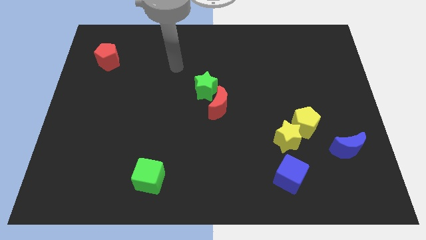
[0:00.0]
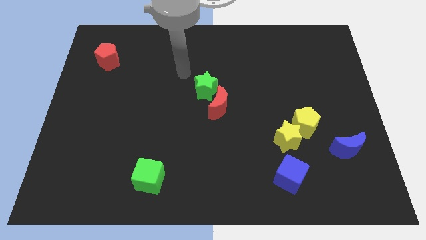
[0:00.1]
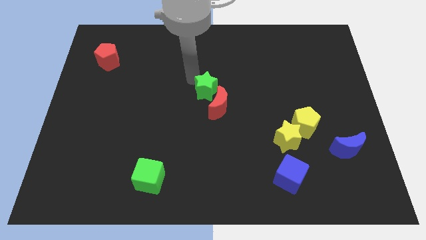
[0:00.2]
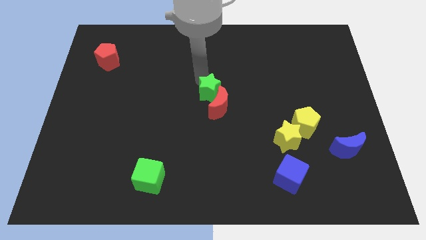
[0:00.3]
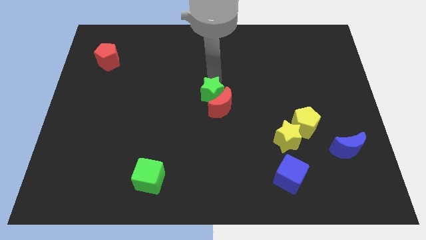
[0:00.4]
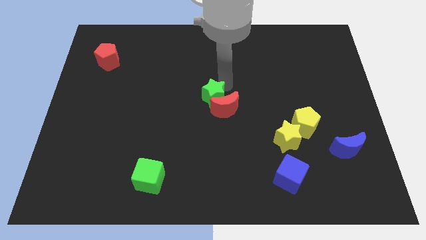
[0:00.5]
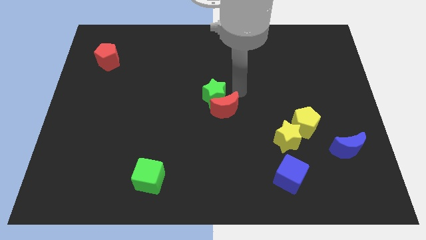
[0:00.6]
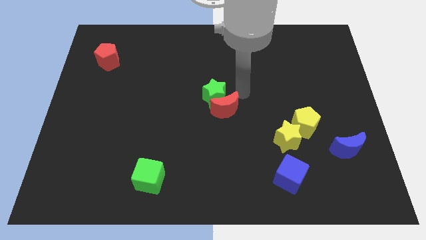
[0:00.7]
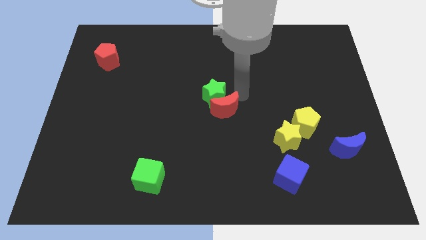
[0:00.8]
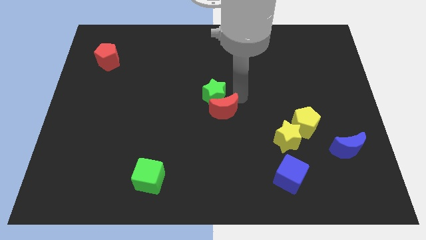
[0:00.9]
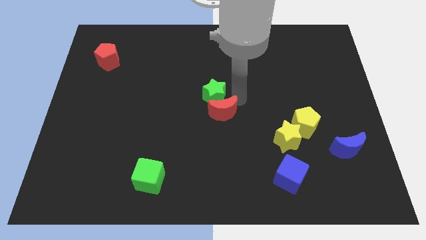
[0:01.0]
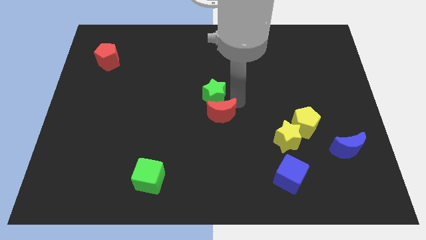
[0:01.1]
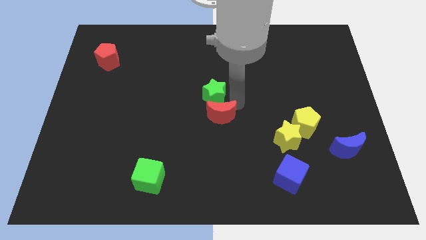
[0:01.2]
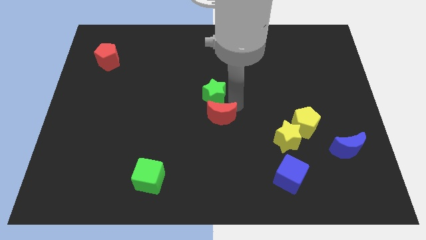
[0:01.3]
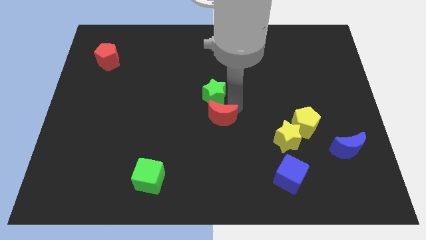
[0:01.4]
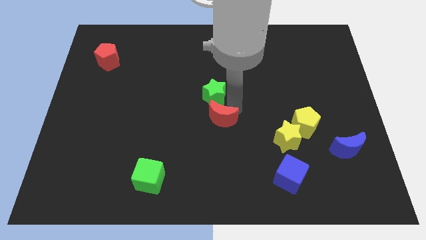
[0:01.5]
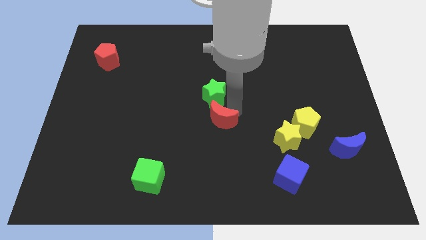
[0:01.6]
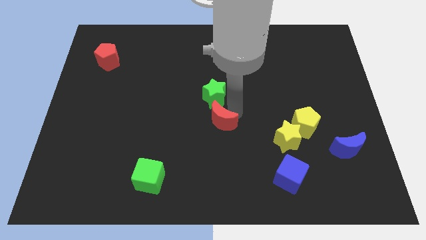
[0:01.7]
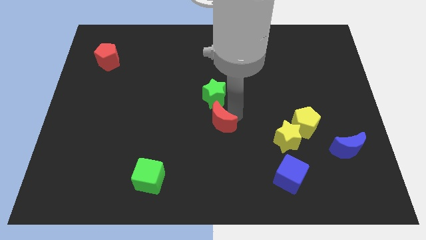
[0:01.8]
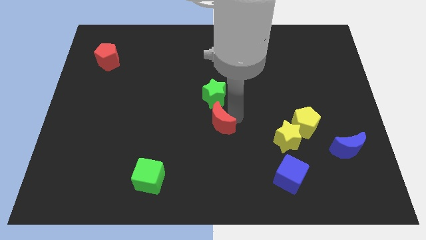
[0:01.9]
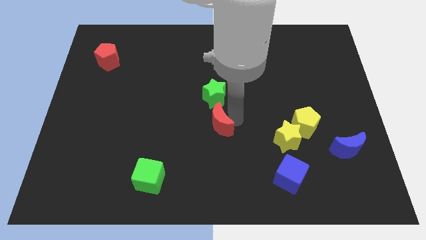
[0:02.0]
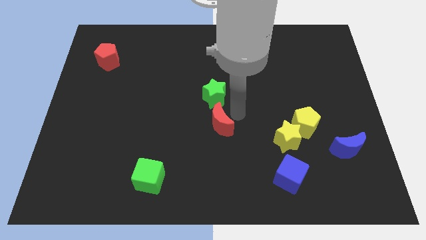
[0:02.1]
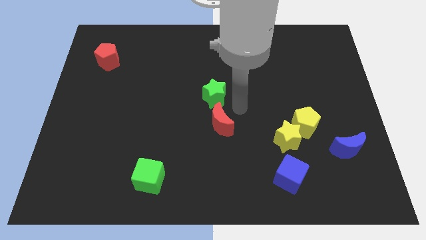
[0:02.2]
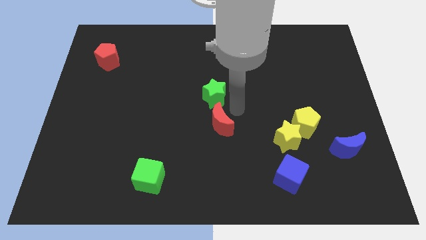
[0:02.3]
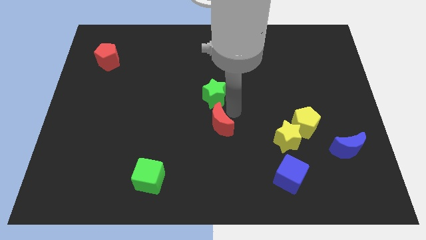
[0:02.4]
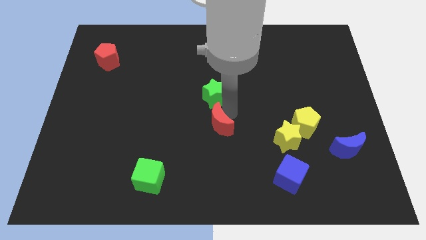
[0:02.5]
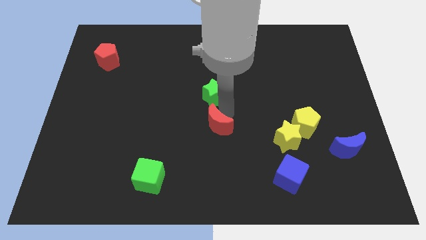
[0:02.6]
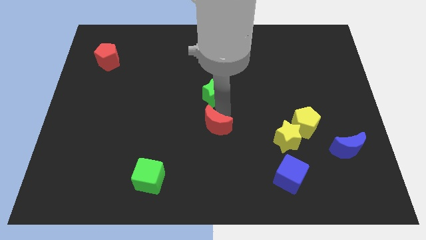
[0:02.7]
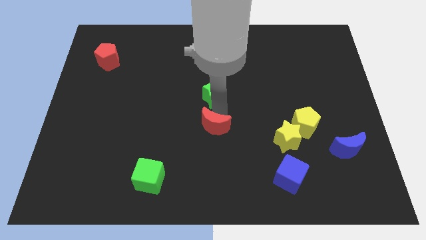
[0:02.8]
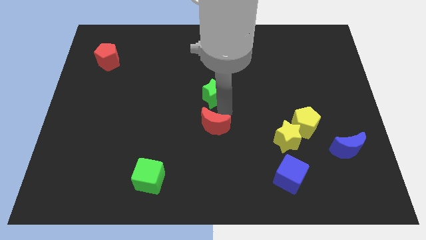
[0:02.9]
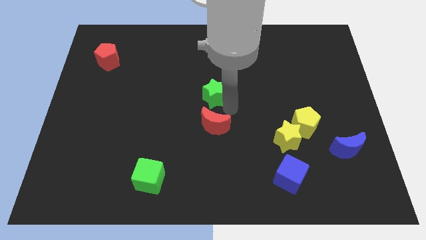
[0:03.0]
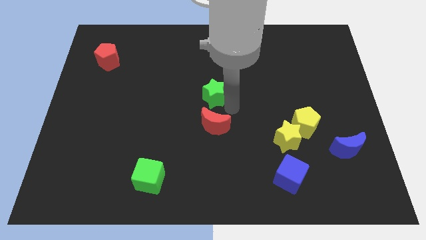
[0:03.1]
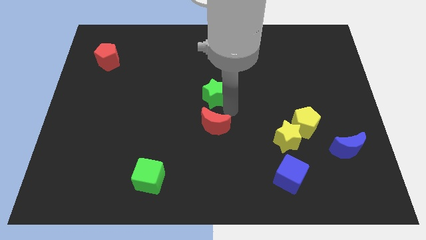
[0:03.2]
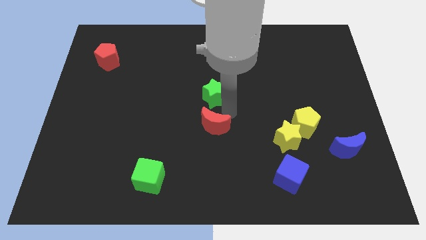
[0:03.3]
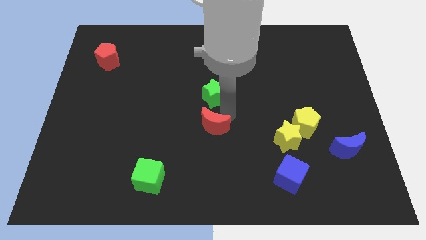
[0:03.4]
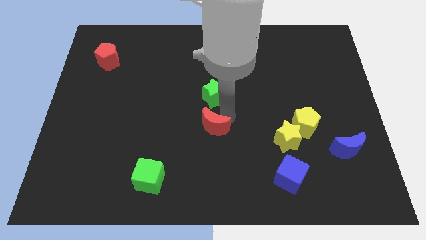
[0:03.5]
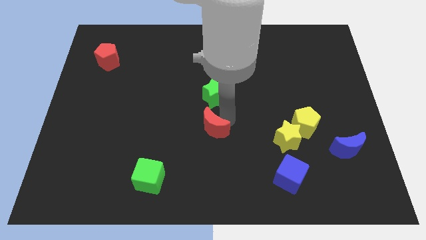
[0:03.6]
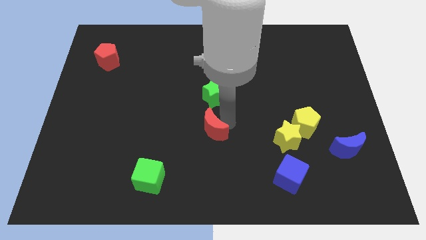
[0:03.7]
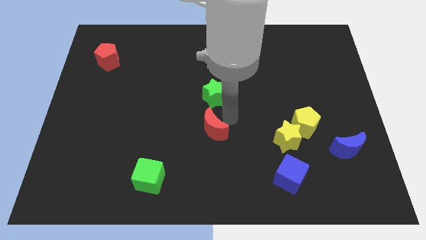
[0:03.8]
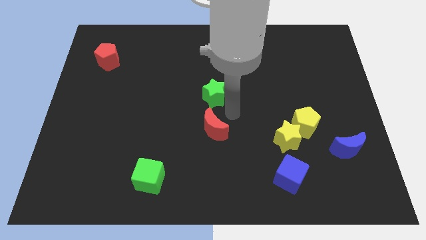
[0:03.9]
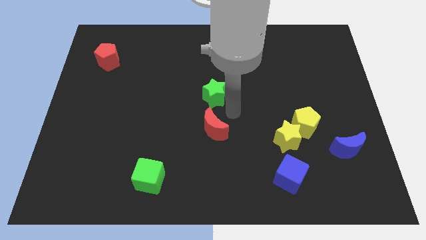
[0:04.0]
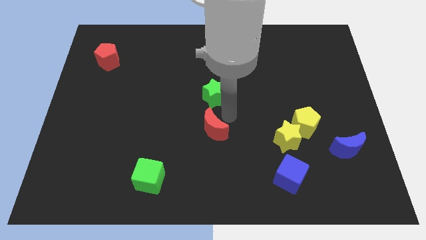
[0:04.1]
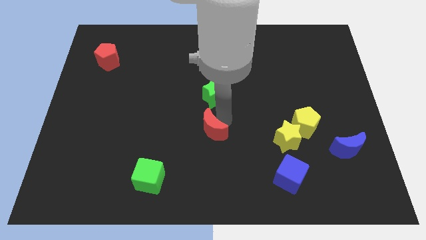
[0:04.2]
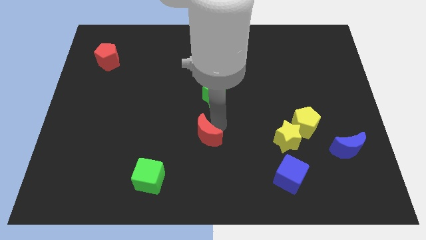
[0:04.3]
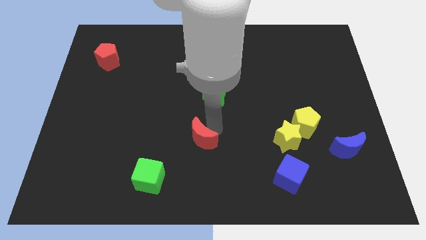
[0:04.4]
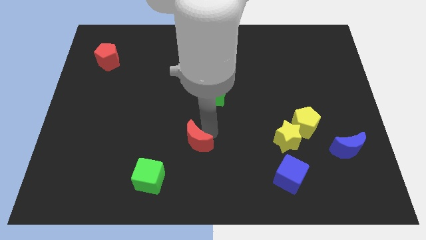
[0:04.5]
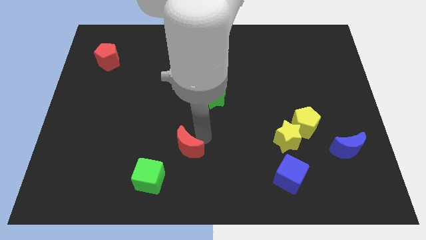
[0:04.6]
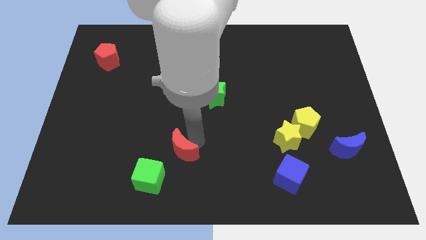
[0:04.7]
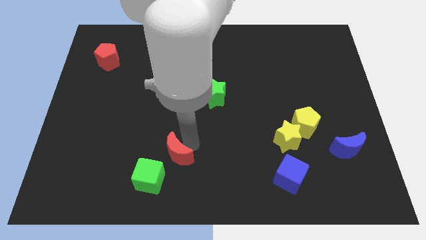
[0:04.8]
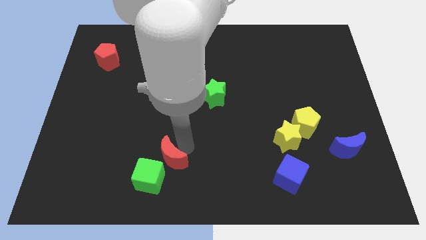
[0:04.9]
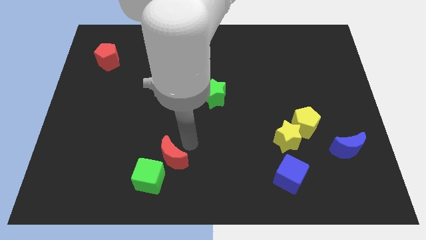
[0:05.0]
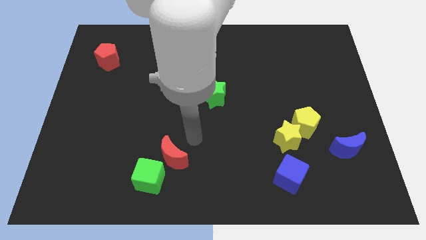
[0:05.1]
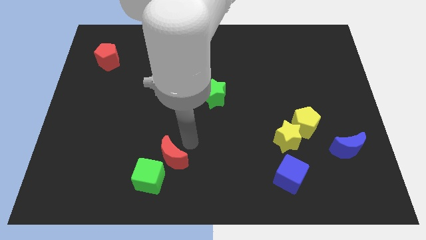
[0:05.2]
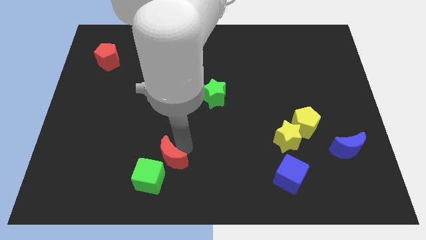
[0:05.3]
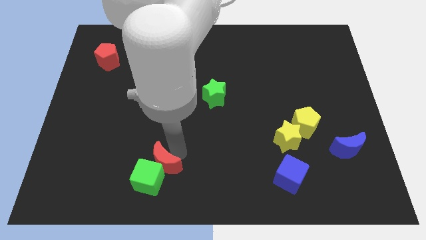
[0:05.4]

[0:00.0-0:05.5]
push the red moon next to the green cube

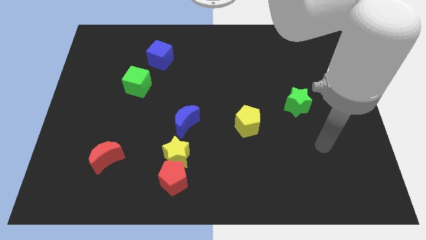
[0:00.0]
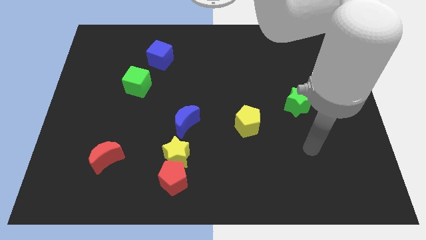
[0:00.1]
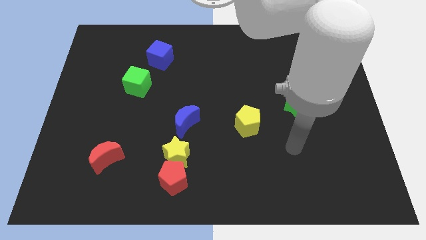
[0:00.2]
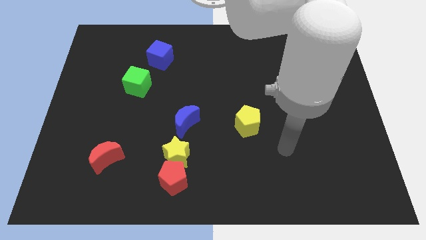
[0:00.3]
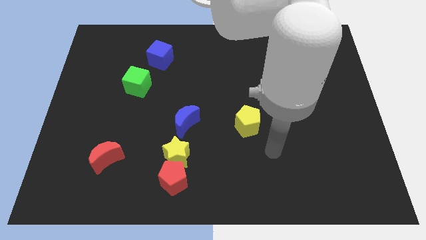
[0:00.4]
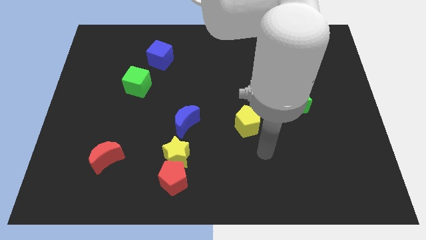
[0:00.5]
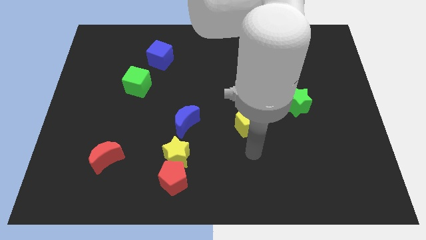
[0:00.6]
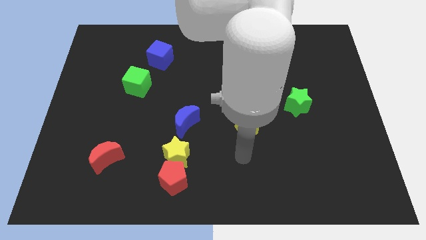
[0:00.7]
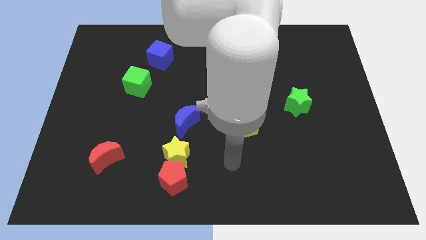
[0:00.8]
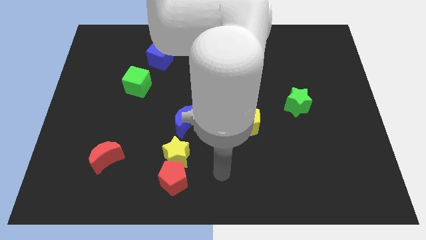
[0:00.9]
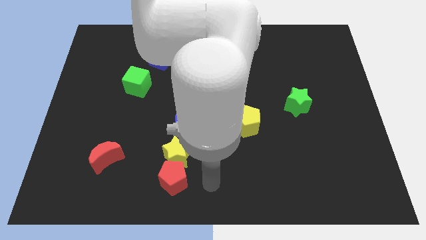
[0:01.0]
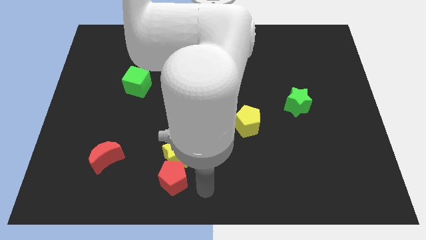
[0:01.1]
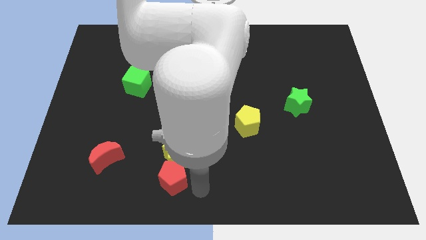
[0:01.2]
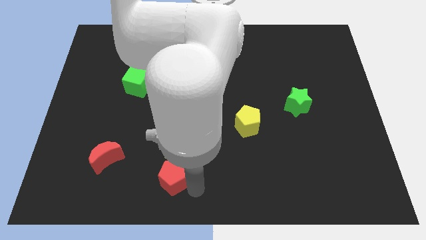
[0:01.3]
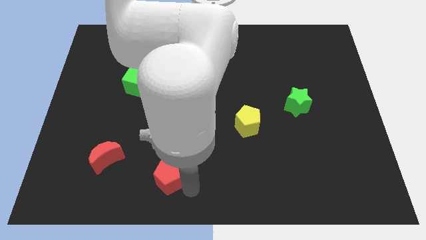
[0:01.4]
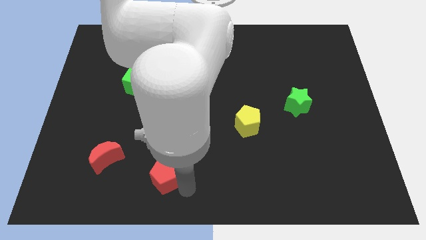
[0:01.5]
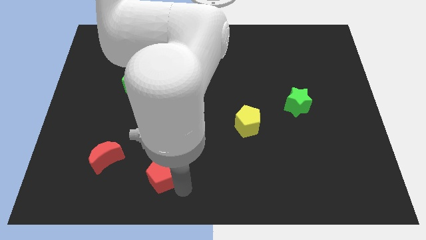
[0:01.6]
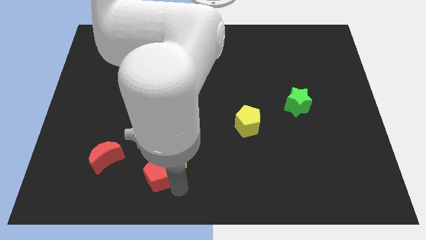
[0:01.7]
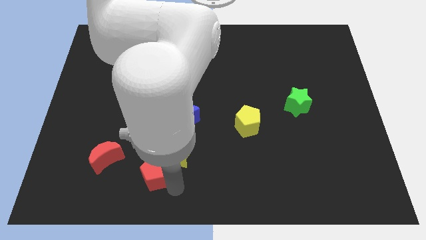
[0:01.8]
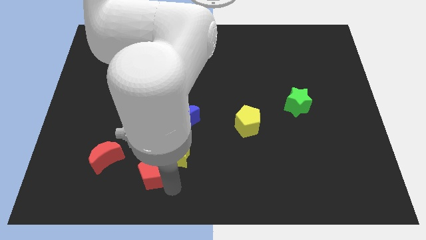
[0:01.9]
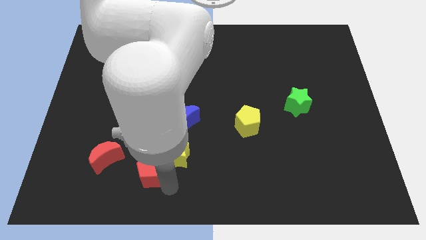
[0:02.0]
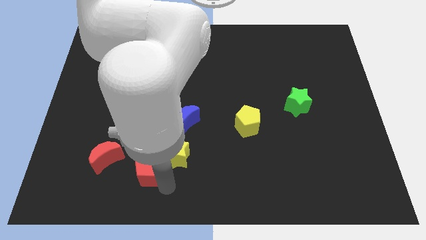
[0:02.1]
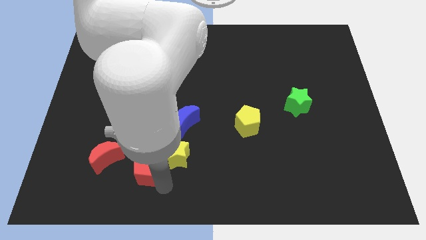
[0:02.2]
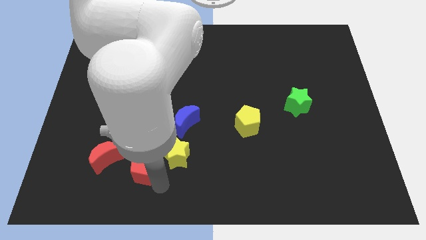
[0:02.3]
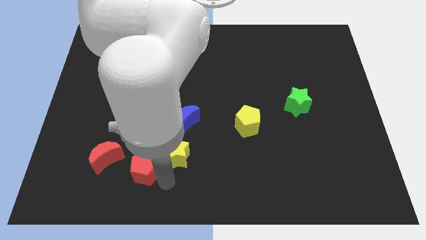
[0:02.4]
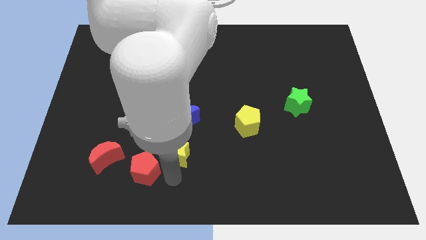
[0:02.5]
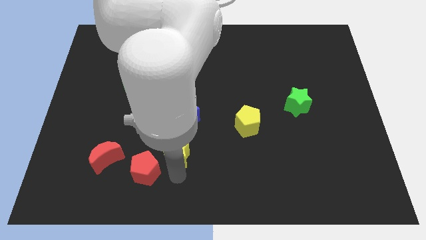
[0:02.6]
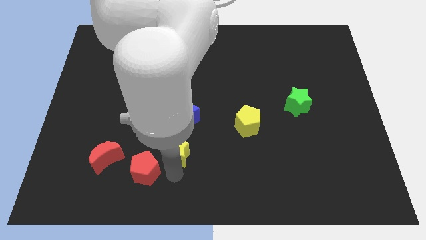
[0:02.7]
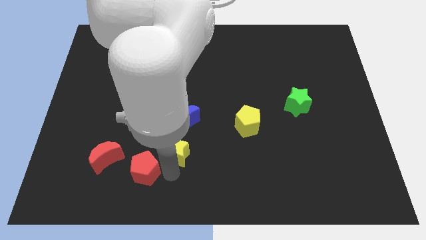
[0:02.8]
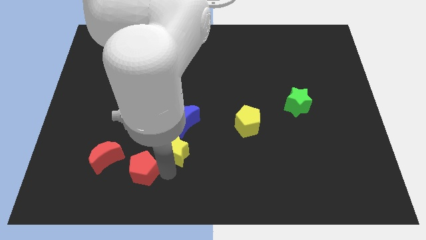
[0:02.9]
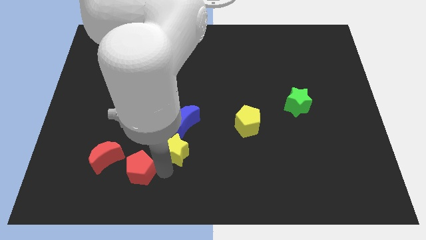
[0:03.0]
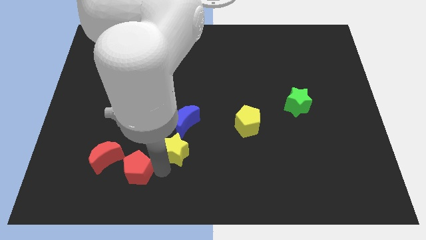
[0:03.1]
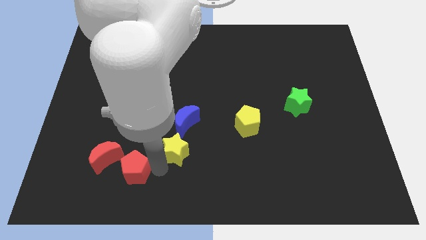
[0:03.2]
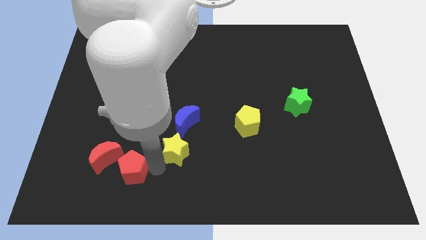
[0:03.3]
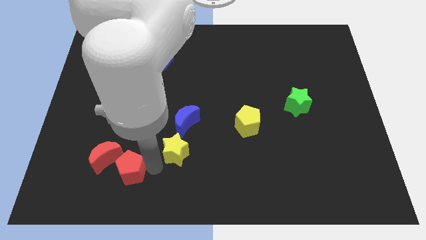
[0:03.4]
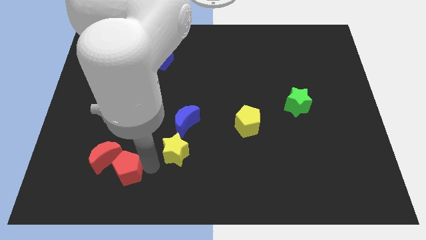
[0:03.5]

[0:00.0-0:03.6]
push the red pentagon to the red moon
